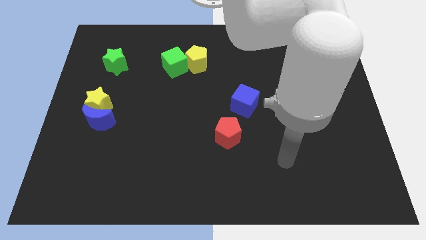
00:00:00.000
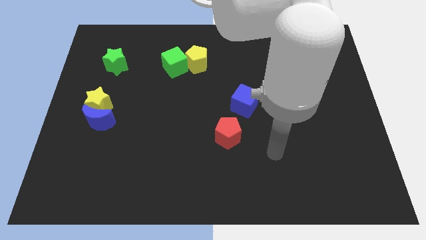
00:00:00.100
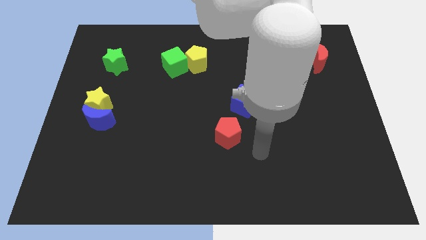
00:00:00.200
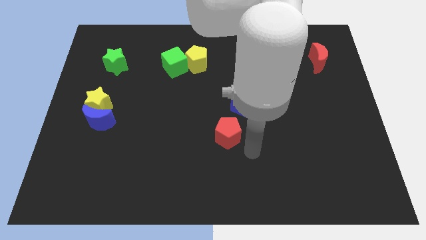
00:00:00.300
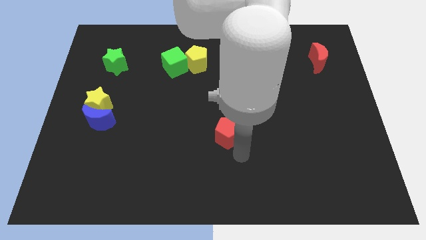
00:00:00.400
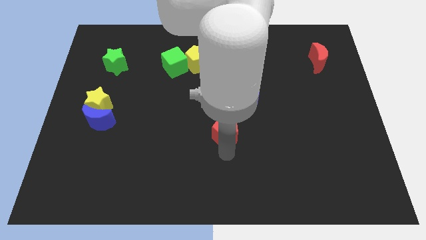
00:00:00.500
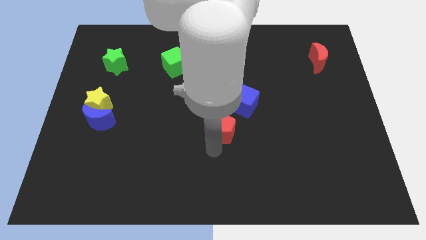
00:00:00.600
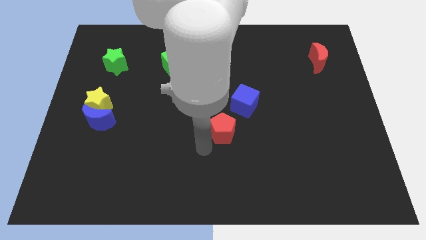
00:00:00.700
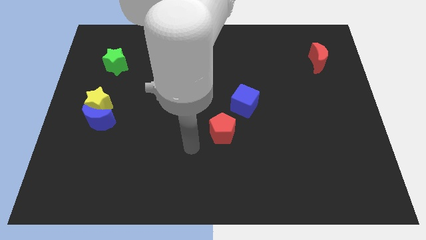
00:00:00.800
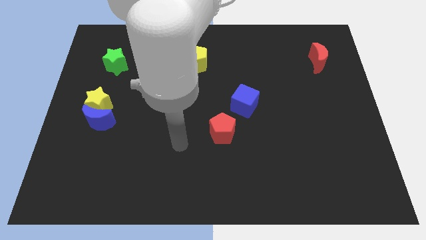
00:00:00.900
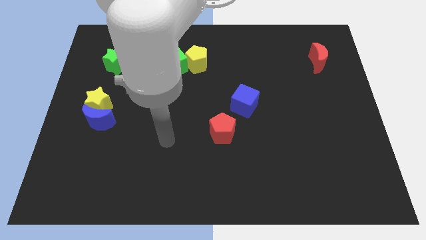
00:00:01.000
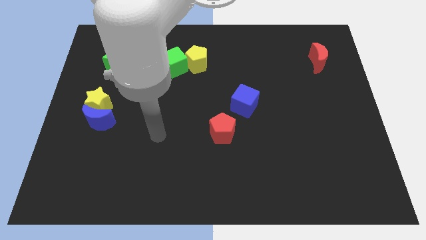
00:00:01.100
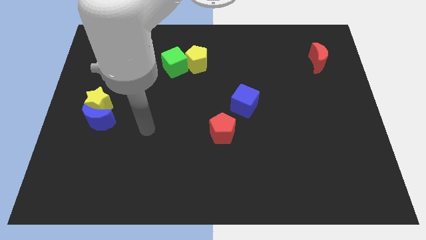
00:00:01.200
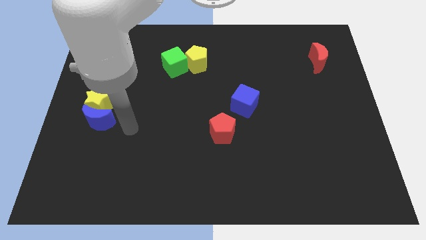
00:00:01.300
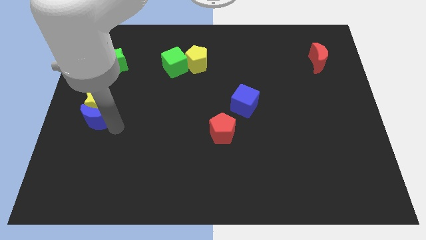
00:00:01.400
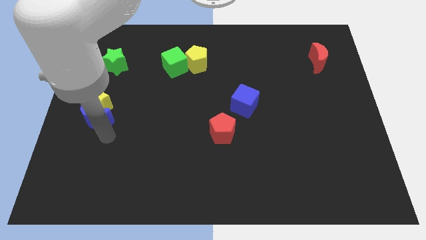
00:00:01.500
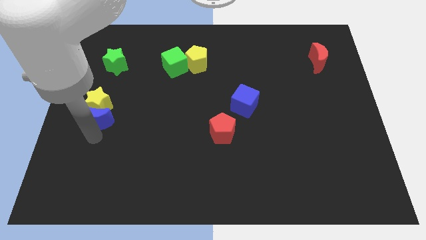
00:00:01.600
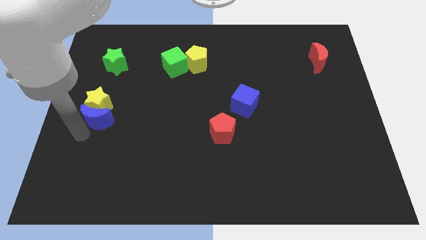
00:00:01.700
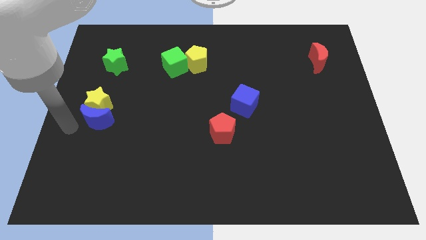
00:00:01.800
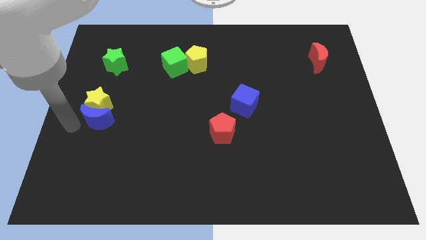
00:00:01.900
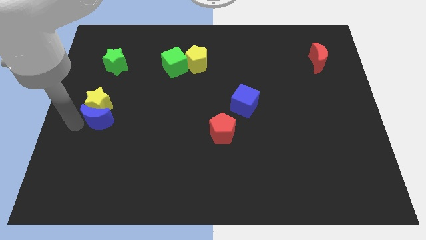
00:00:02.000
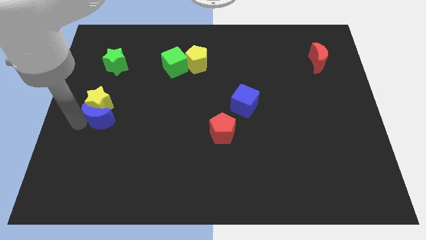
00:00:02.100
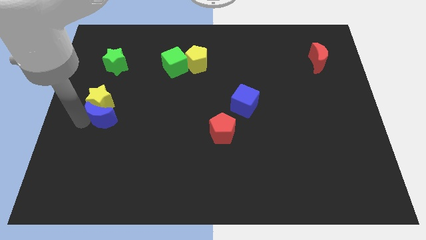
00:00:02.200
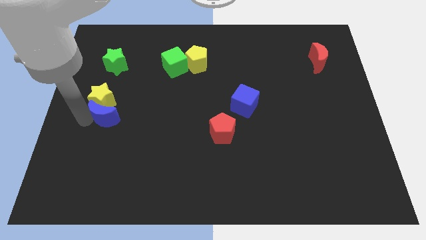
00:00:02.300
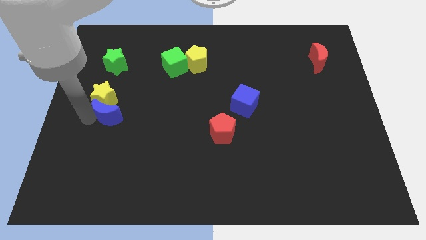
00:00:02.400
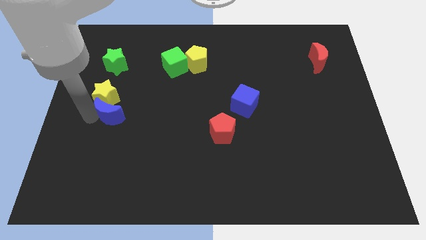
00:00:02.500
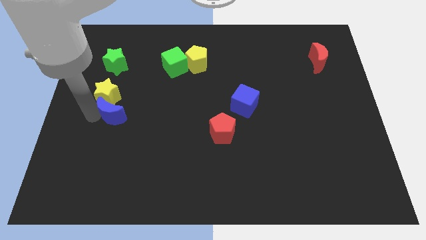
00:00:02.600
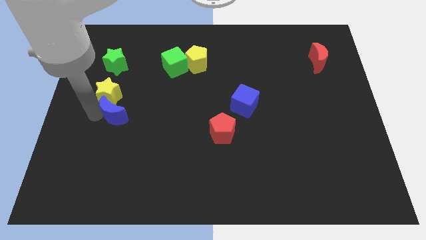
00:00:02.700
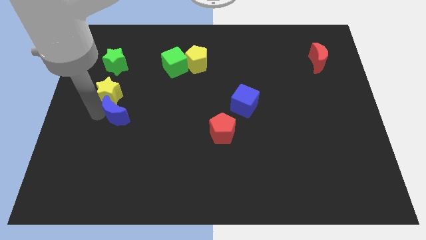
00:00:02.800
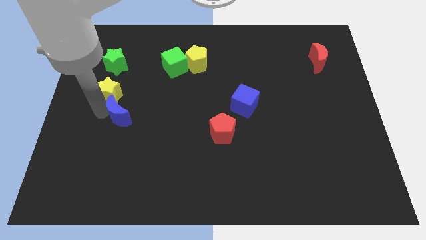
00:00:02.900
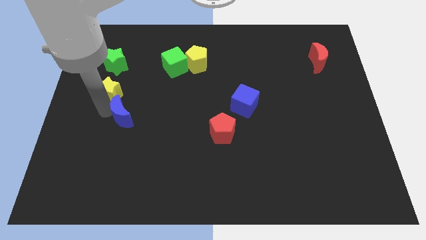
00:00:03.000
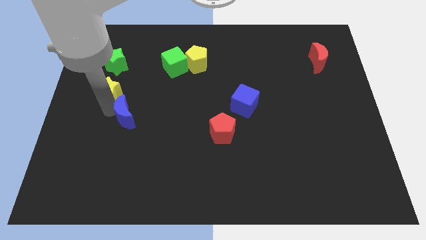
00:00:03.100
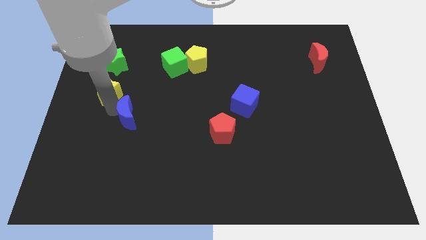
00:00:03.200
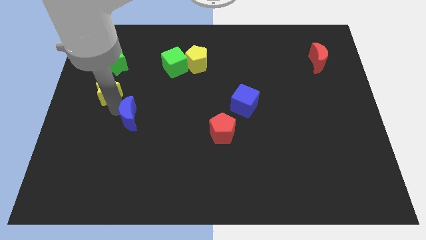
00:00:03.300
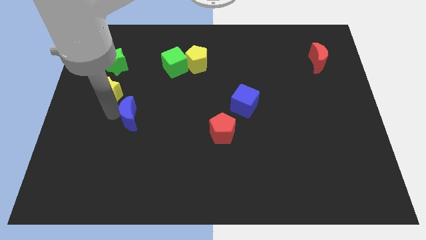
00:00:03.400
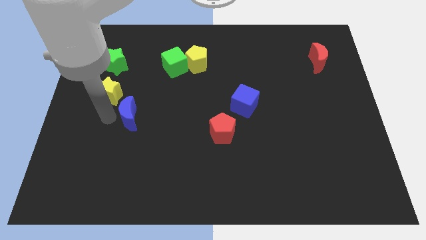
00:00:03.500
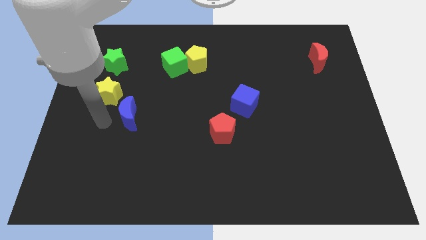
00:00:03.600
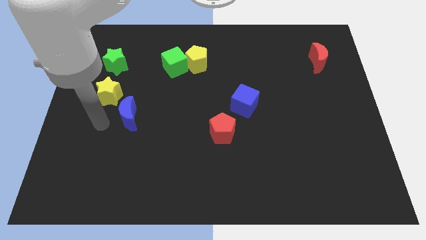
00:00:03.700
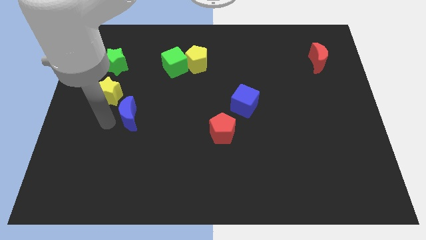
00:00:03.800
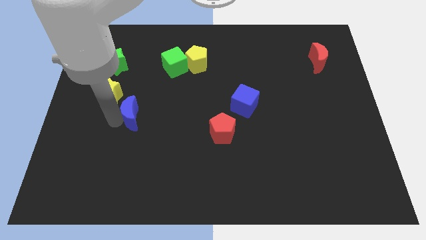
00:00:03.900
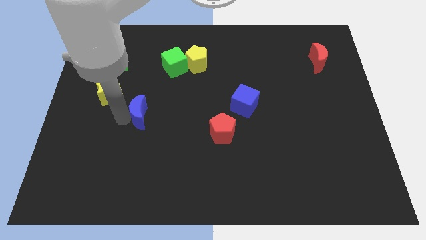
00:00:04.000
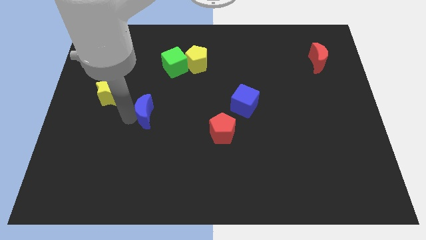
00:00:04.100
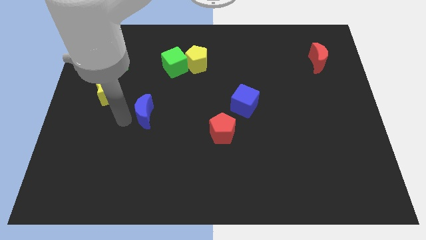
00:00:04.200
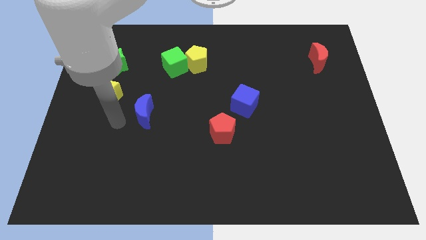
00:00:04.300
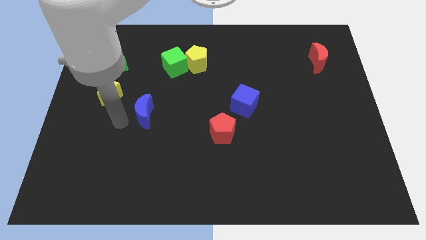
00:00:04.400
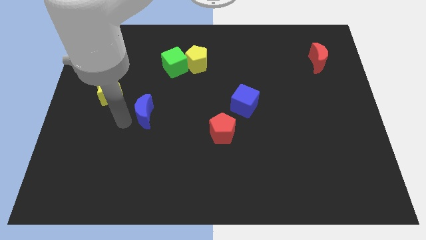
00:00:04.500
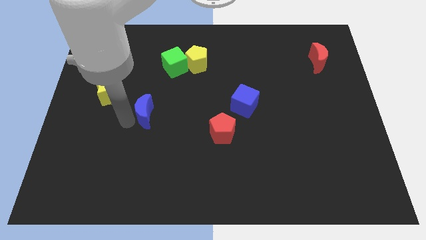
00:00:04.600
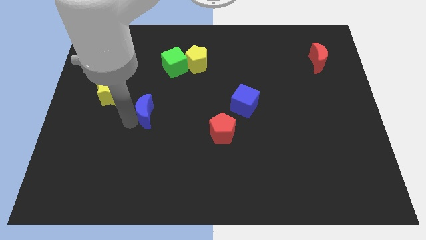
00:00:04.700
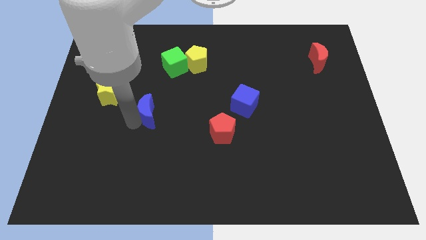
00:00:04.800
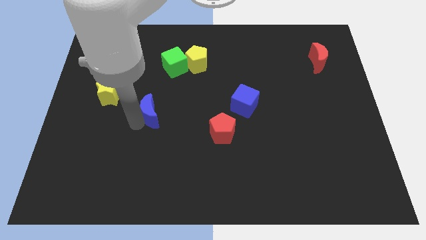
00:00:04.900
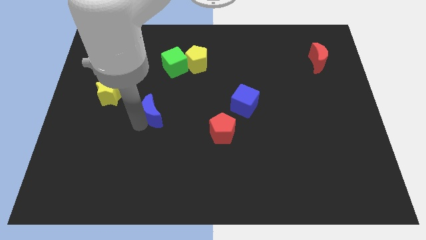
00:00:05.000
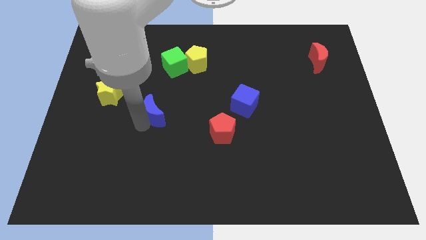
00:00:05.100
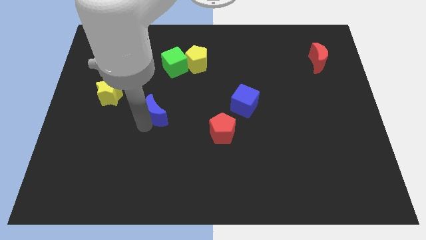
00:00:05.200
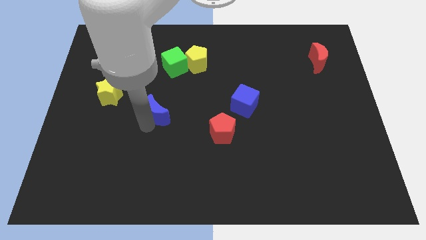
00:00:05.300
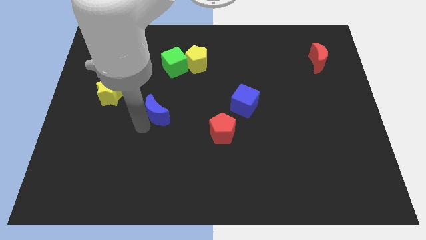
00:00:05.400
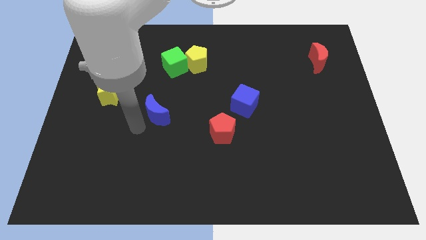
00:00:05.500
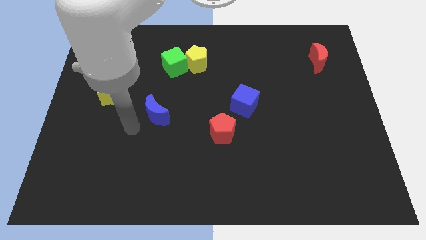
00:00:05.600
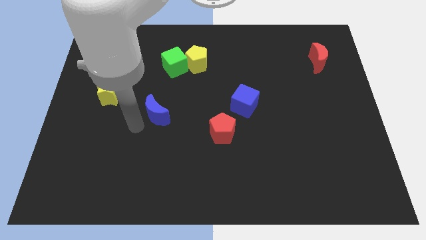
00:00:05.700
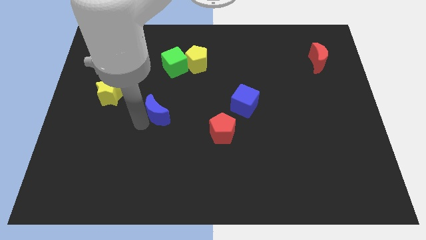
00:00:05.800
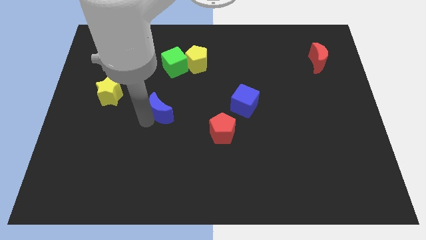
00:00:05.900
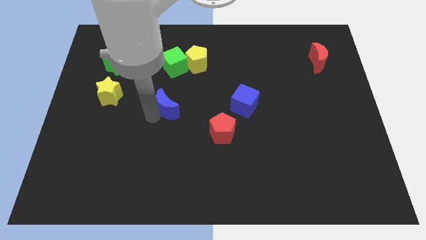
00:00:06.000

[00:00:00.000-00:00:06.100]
push the blue moon to the middle

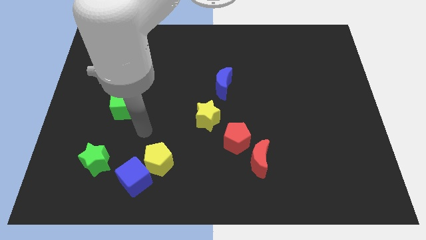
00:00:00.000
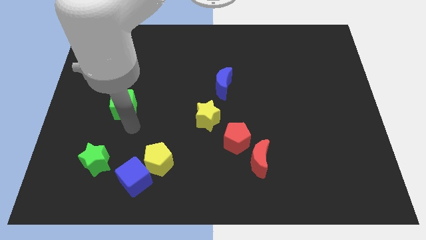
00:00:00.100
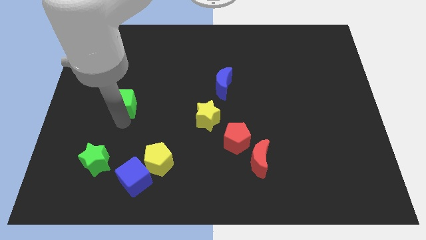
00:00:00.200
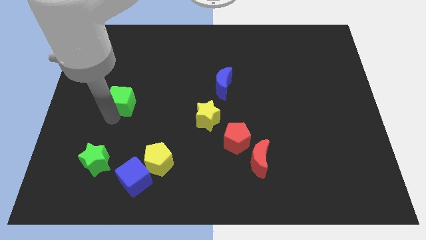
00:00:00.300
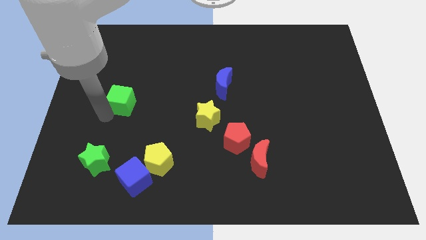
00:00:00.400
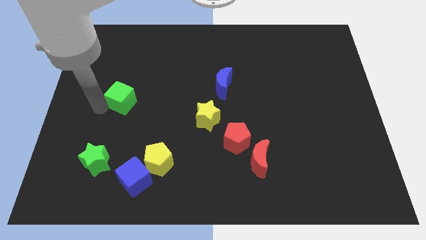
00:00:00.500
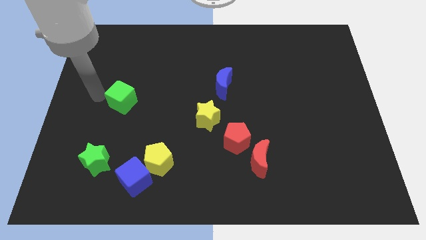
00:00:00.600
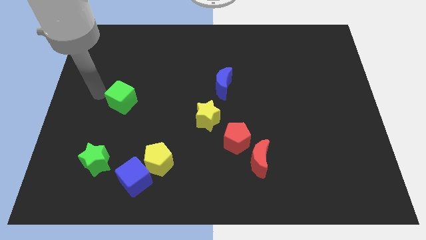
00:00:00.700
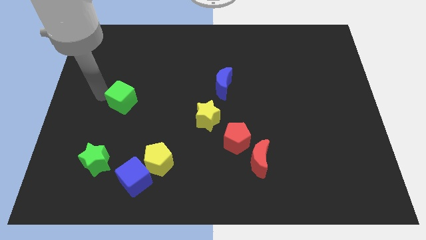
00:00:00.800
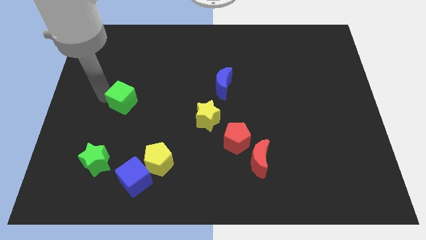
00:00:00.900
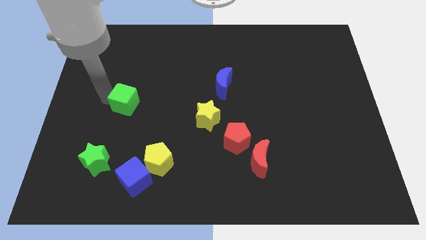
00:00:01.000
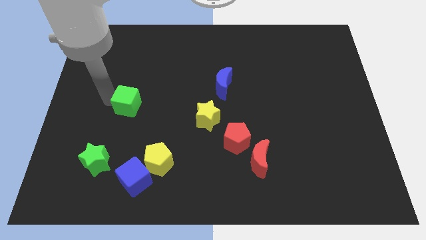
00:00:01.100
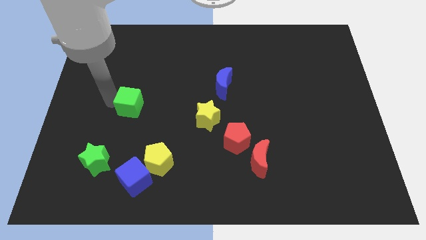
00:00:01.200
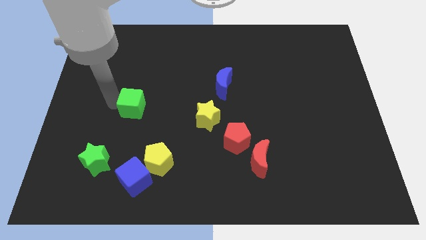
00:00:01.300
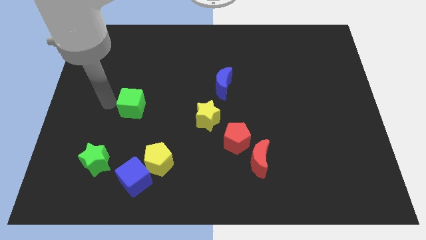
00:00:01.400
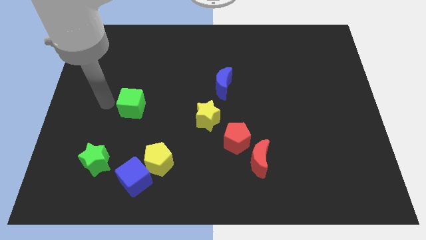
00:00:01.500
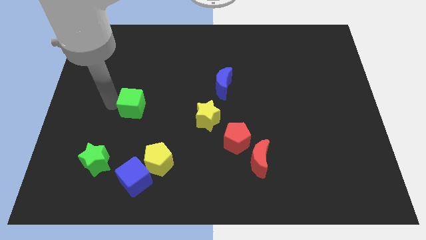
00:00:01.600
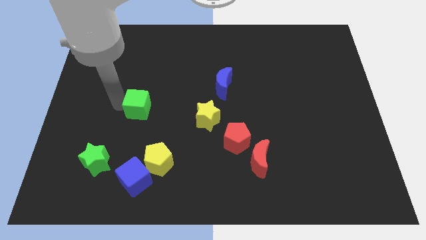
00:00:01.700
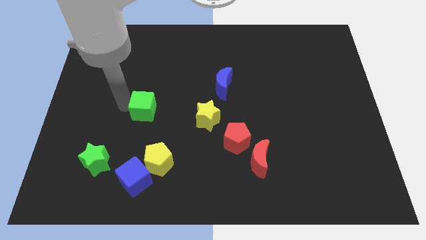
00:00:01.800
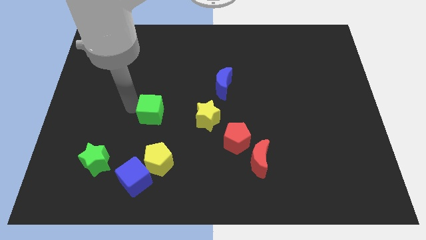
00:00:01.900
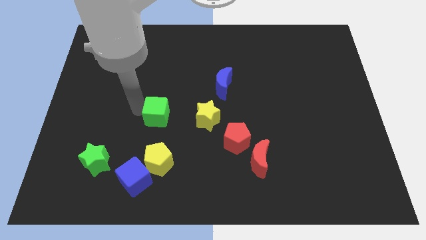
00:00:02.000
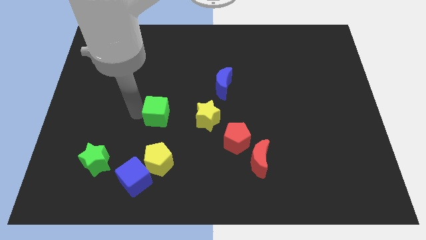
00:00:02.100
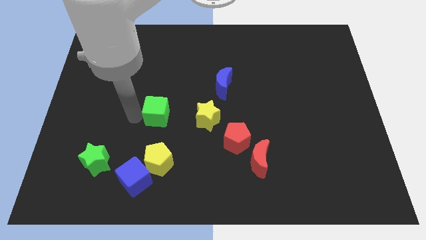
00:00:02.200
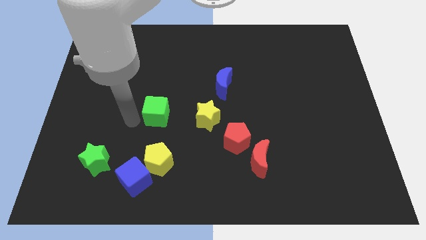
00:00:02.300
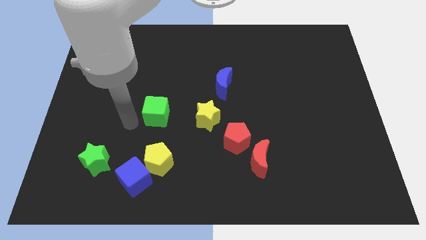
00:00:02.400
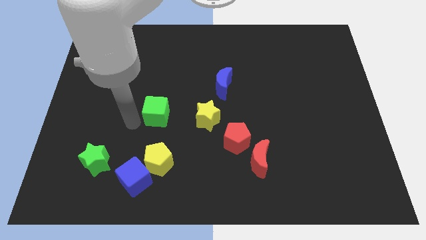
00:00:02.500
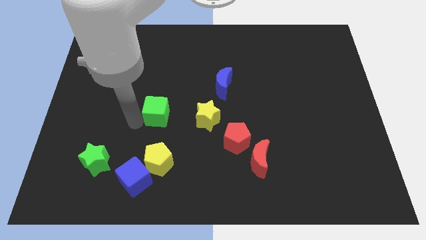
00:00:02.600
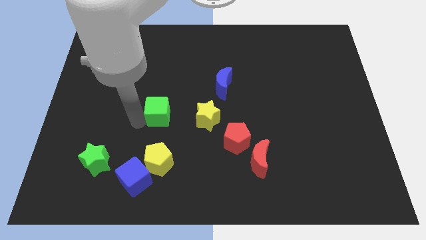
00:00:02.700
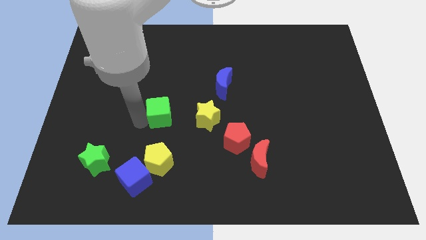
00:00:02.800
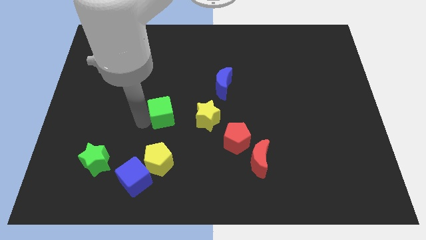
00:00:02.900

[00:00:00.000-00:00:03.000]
push the green cube to the center
